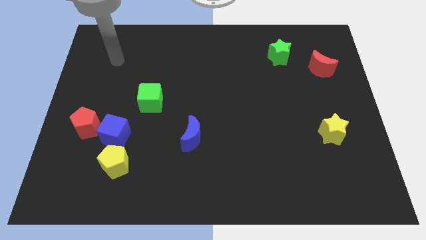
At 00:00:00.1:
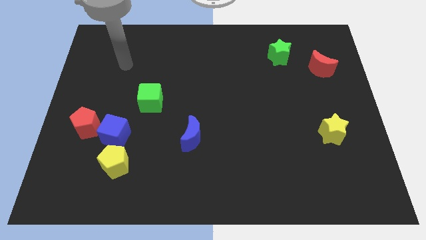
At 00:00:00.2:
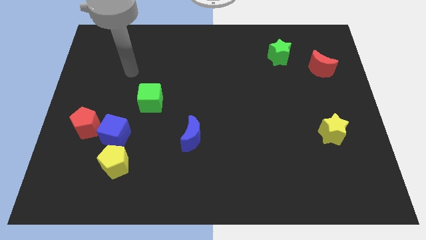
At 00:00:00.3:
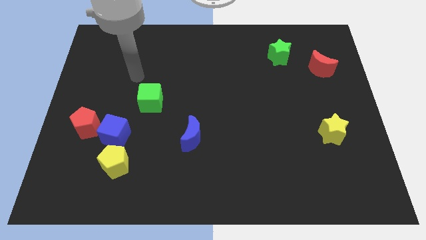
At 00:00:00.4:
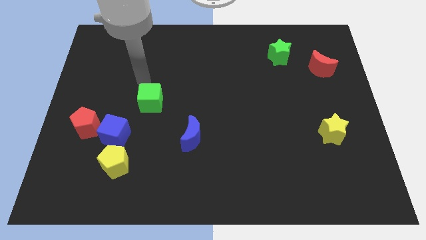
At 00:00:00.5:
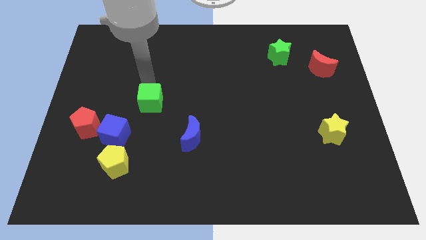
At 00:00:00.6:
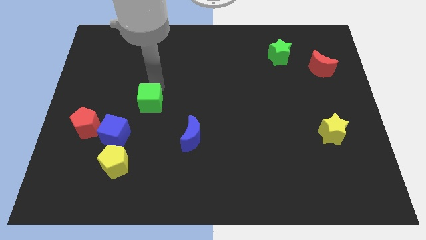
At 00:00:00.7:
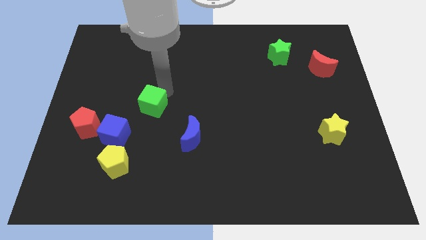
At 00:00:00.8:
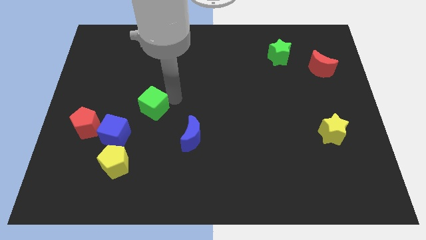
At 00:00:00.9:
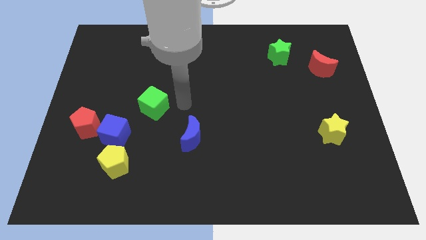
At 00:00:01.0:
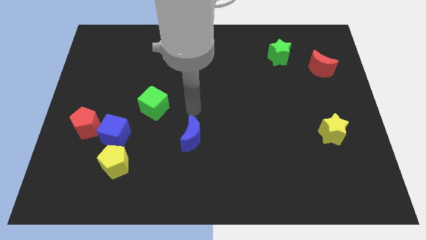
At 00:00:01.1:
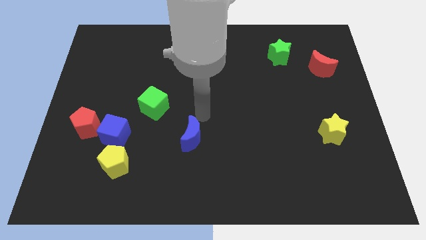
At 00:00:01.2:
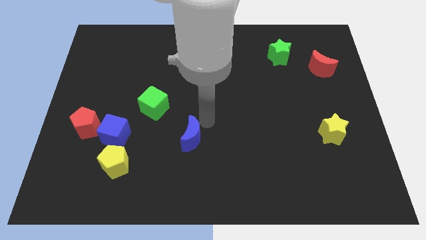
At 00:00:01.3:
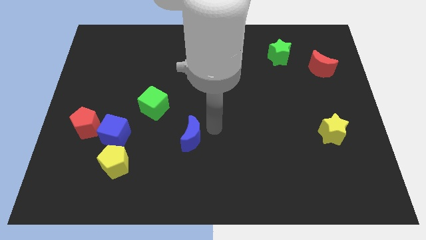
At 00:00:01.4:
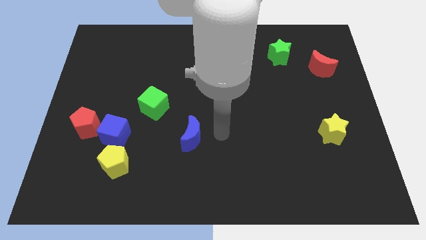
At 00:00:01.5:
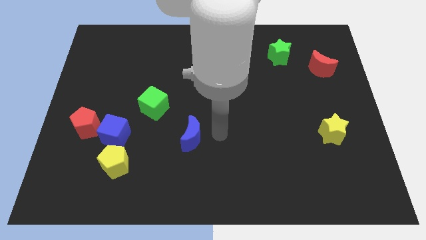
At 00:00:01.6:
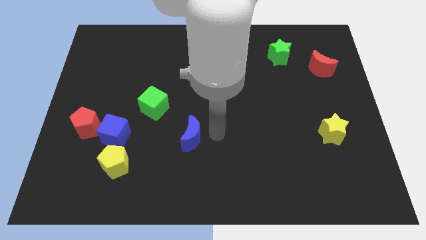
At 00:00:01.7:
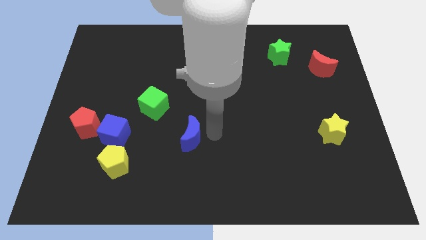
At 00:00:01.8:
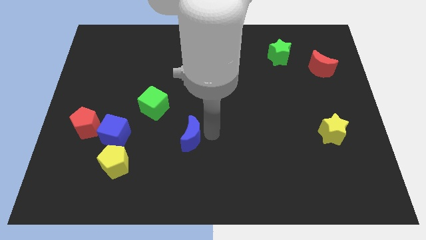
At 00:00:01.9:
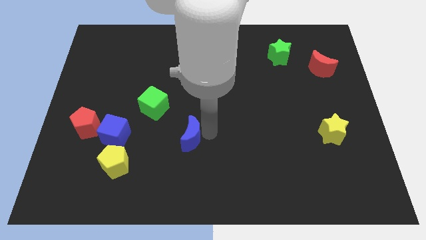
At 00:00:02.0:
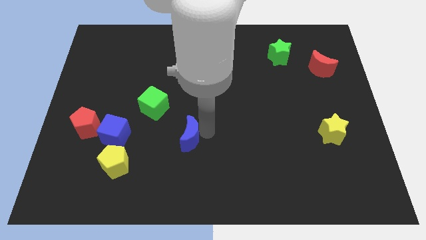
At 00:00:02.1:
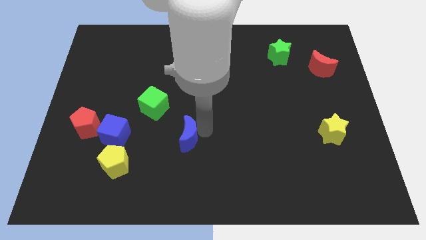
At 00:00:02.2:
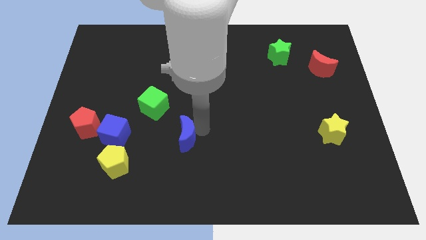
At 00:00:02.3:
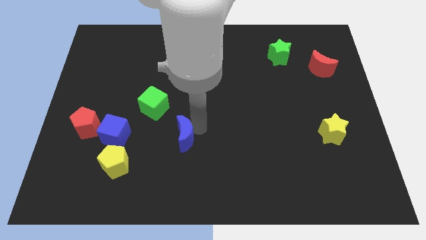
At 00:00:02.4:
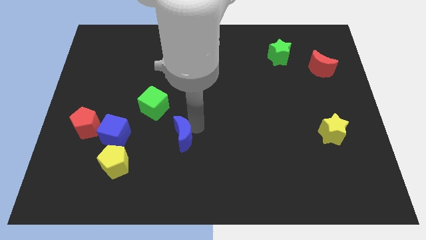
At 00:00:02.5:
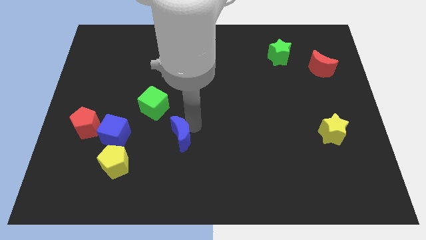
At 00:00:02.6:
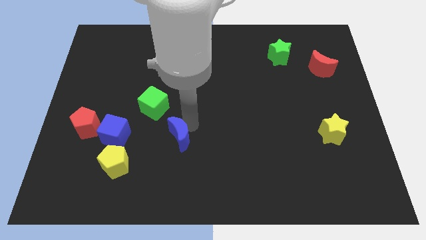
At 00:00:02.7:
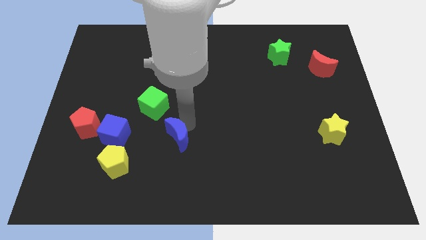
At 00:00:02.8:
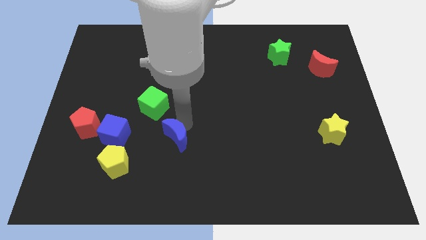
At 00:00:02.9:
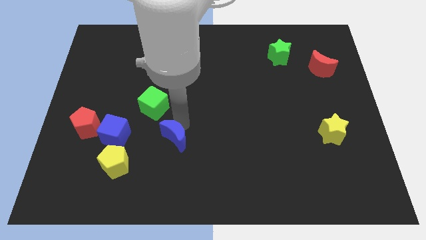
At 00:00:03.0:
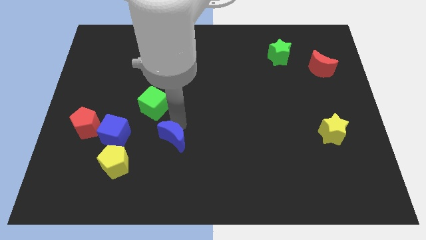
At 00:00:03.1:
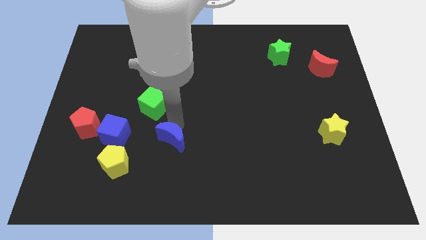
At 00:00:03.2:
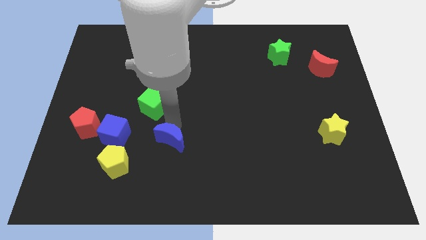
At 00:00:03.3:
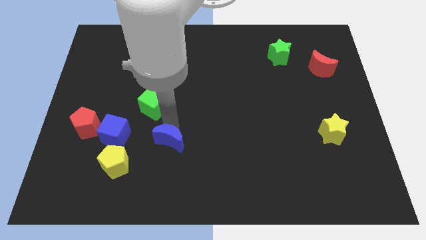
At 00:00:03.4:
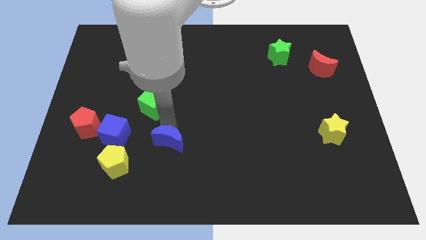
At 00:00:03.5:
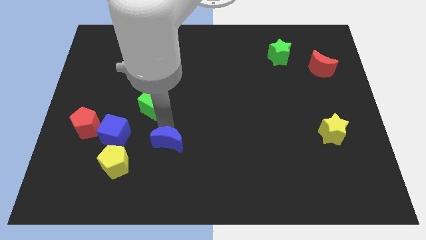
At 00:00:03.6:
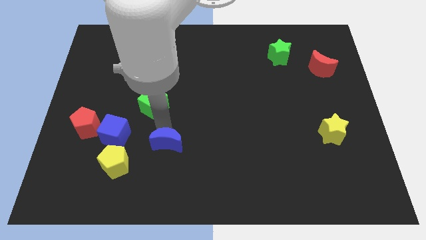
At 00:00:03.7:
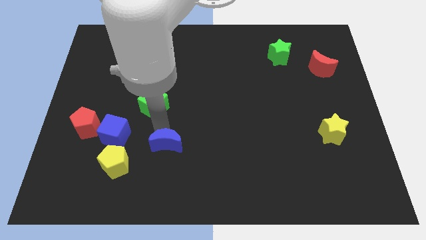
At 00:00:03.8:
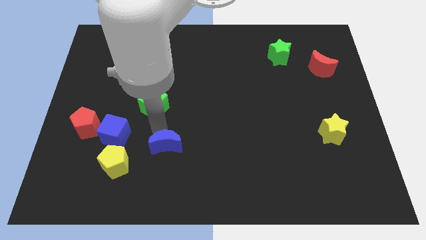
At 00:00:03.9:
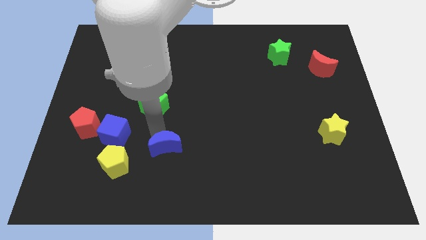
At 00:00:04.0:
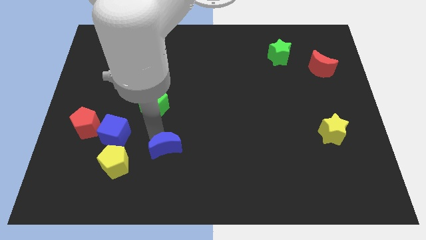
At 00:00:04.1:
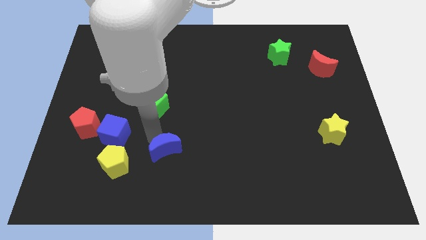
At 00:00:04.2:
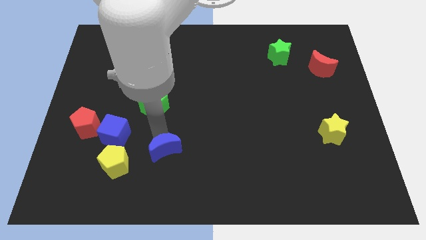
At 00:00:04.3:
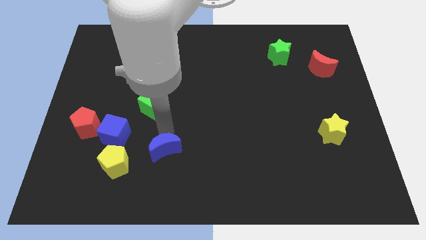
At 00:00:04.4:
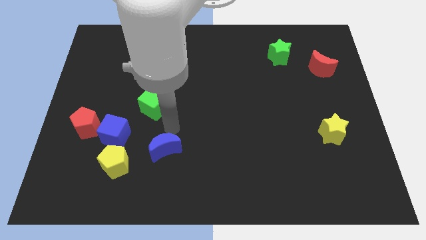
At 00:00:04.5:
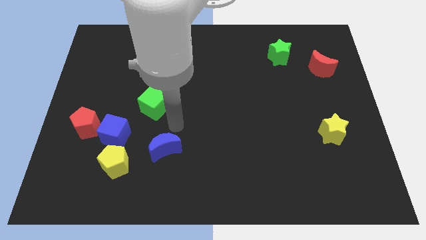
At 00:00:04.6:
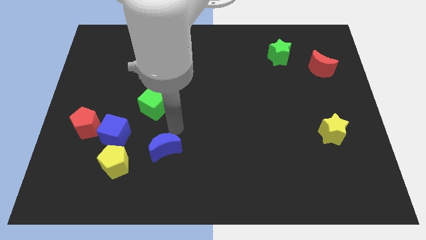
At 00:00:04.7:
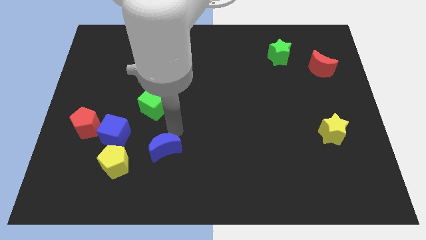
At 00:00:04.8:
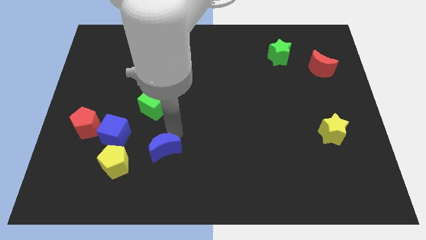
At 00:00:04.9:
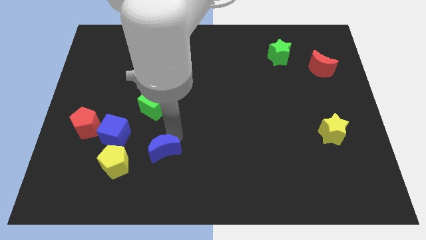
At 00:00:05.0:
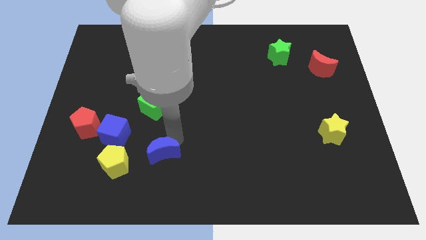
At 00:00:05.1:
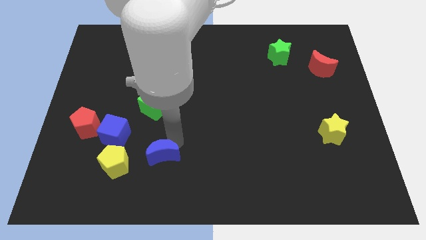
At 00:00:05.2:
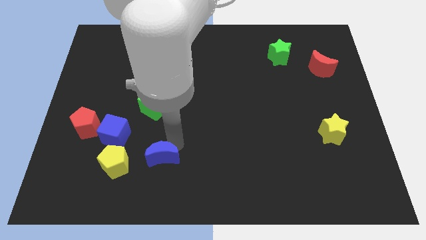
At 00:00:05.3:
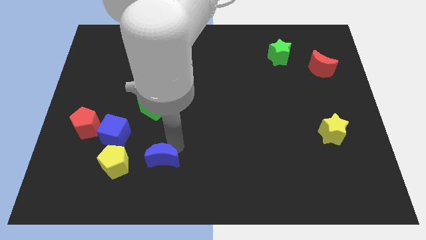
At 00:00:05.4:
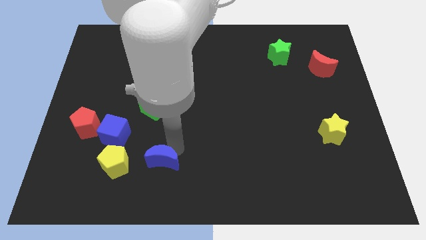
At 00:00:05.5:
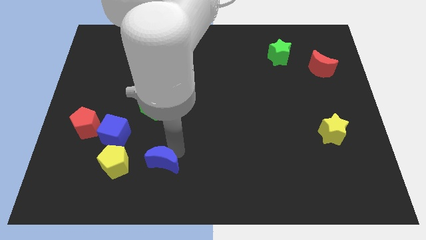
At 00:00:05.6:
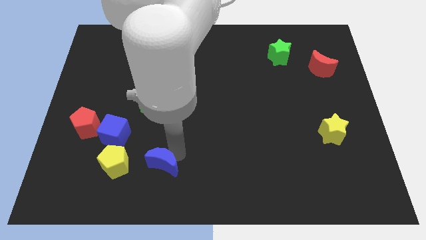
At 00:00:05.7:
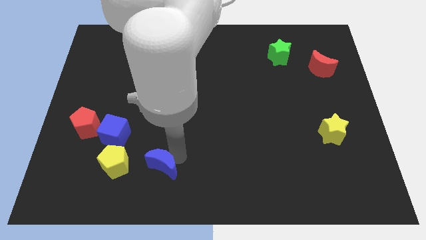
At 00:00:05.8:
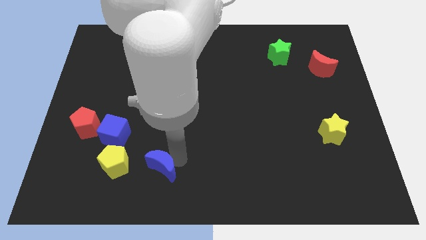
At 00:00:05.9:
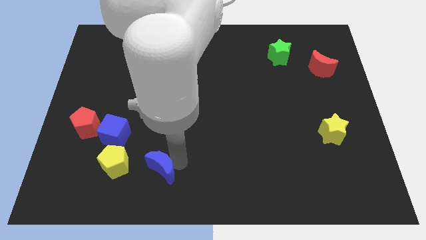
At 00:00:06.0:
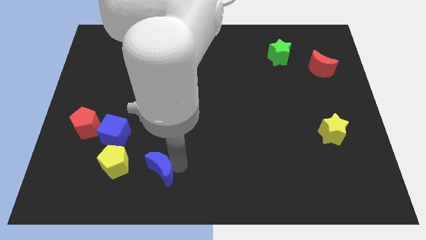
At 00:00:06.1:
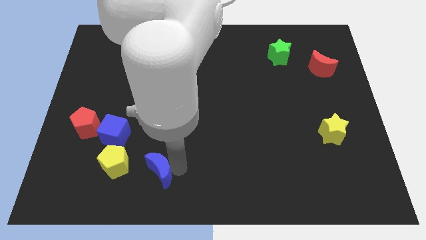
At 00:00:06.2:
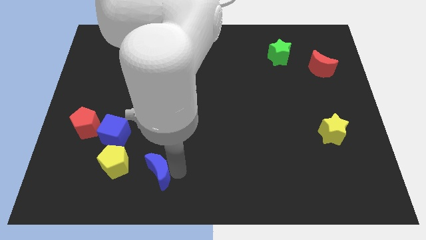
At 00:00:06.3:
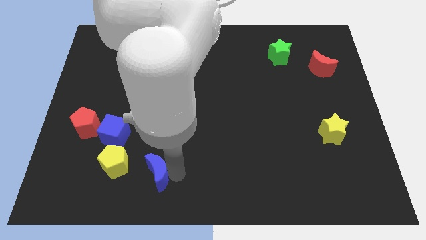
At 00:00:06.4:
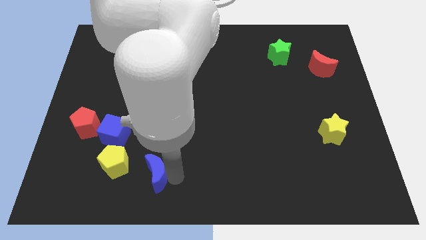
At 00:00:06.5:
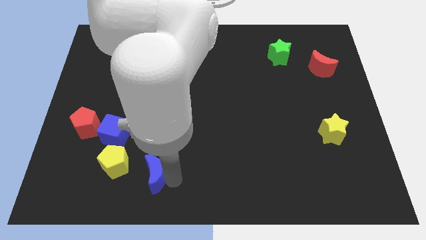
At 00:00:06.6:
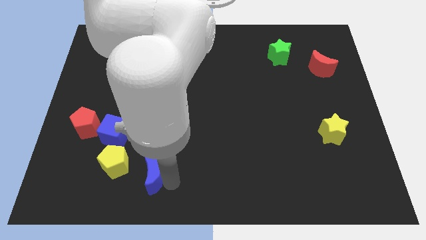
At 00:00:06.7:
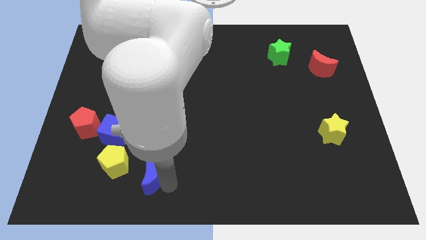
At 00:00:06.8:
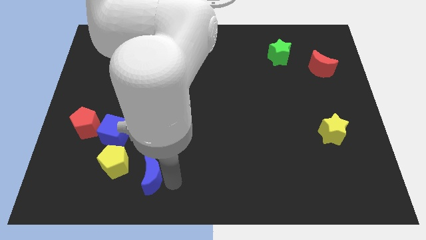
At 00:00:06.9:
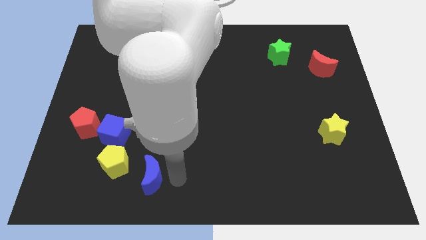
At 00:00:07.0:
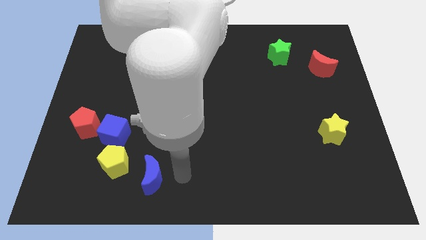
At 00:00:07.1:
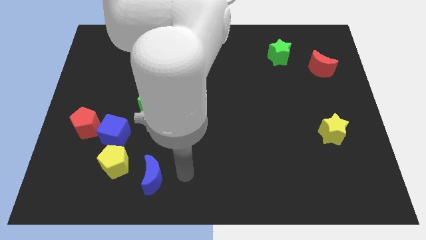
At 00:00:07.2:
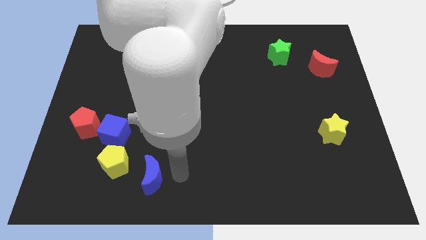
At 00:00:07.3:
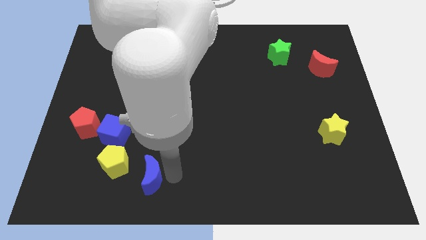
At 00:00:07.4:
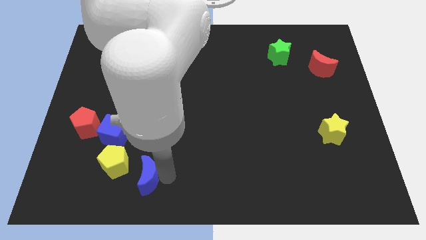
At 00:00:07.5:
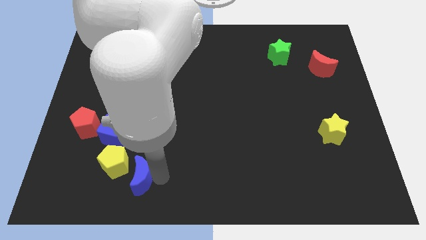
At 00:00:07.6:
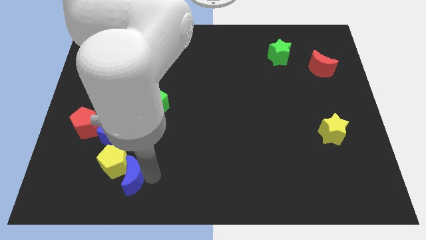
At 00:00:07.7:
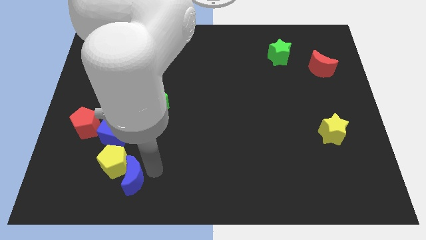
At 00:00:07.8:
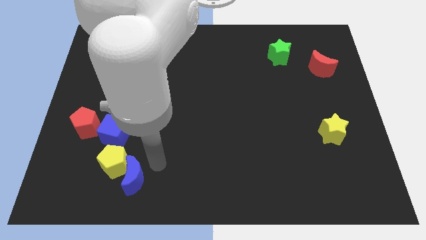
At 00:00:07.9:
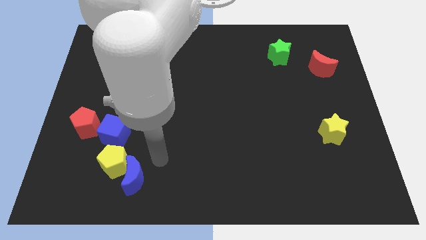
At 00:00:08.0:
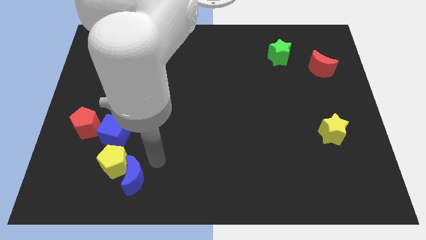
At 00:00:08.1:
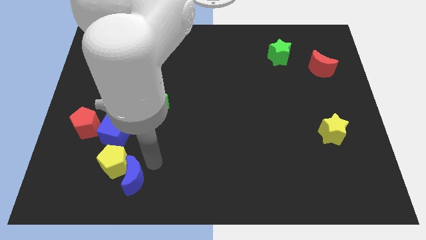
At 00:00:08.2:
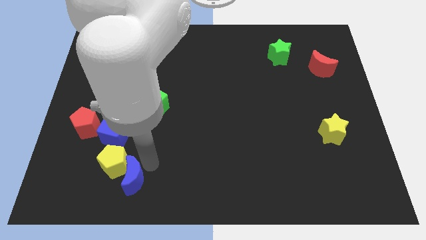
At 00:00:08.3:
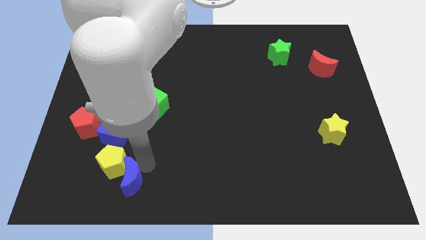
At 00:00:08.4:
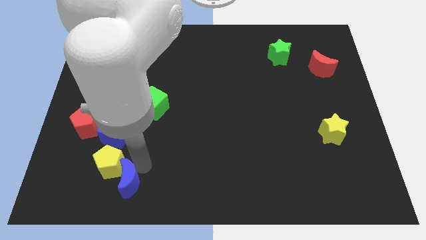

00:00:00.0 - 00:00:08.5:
move the blue moon to the bottom of the blue cube

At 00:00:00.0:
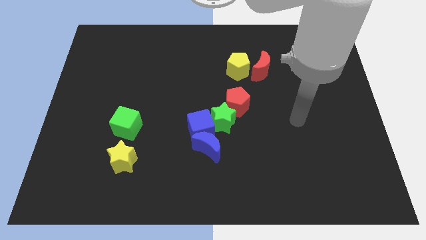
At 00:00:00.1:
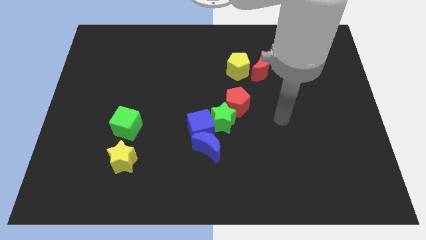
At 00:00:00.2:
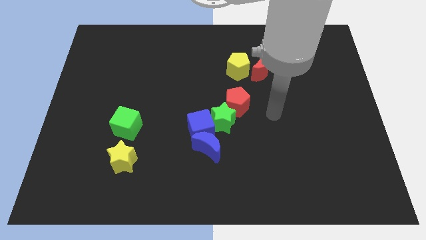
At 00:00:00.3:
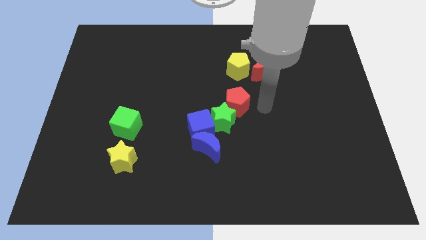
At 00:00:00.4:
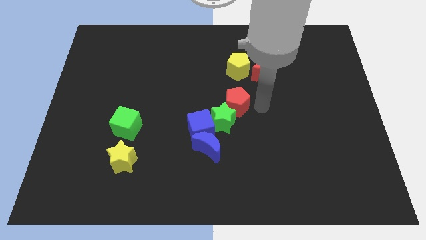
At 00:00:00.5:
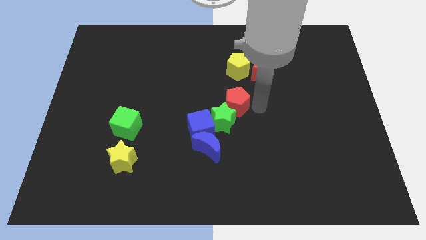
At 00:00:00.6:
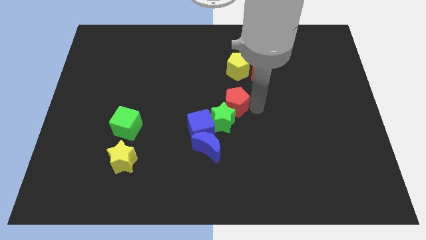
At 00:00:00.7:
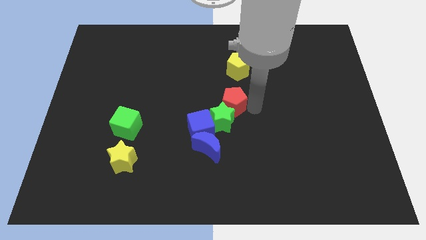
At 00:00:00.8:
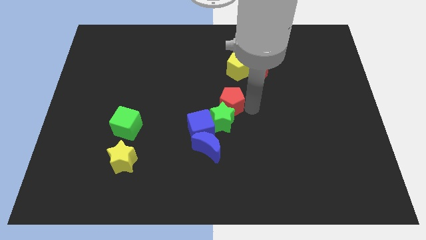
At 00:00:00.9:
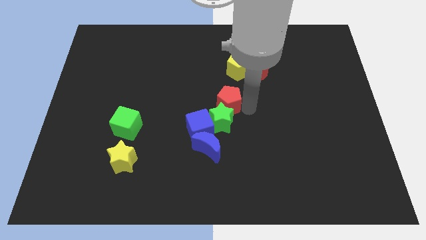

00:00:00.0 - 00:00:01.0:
slide the red pentagon to the top left side of the green star
